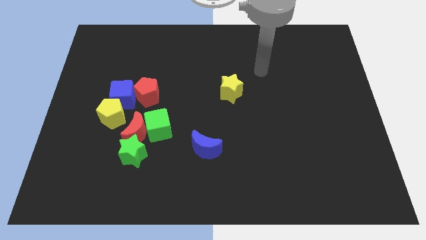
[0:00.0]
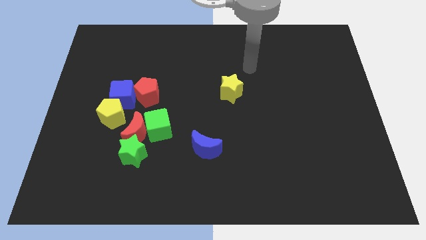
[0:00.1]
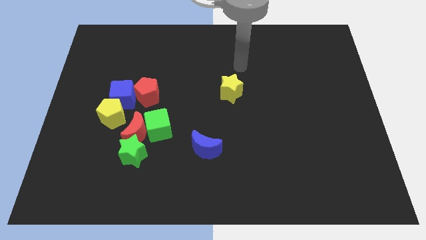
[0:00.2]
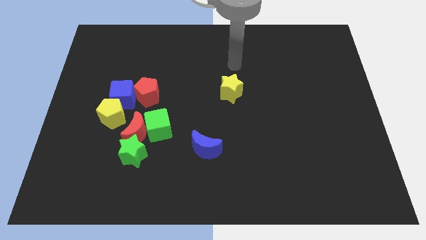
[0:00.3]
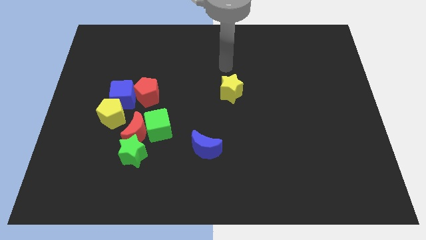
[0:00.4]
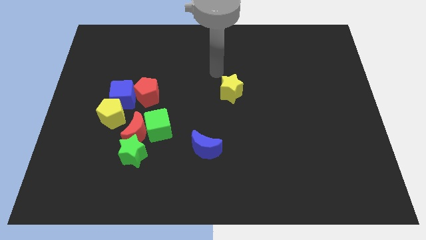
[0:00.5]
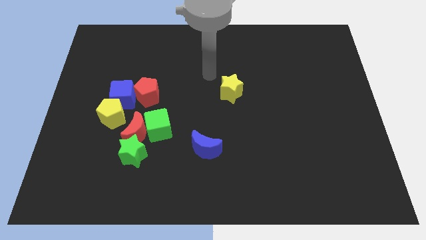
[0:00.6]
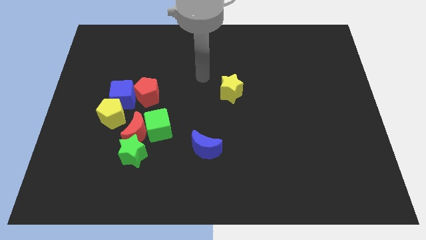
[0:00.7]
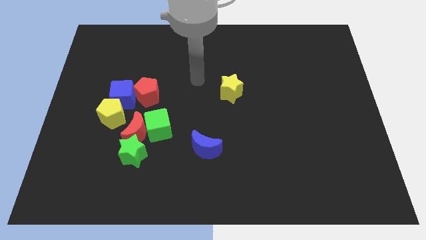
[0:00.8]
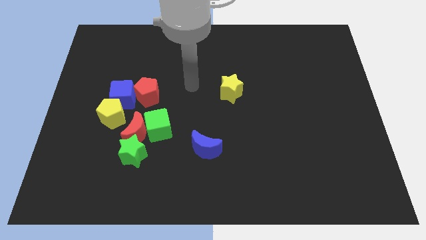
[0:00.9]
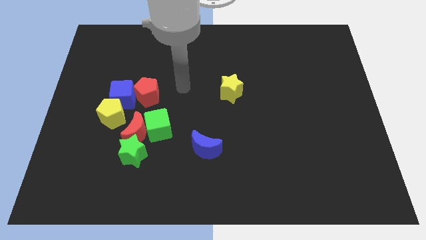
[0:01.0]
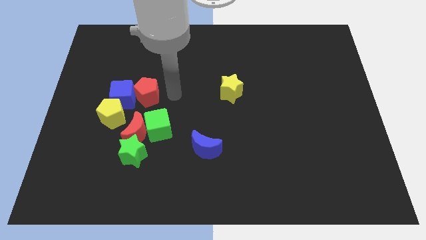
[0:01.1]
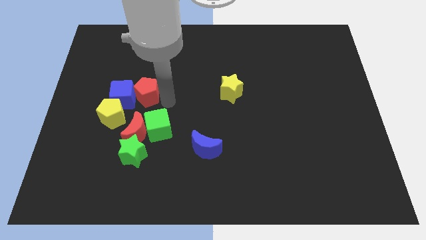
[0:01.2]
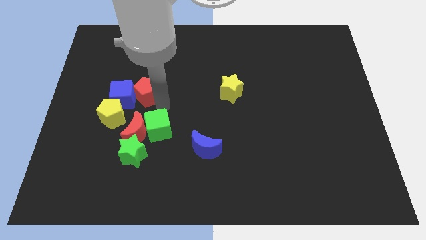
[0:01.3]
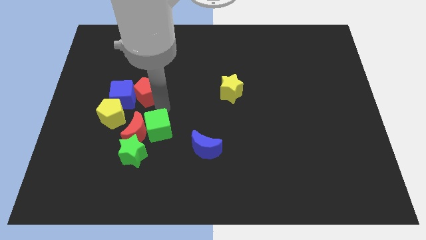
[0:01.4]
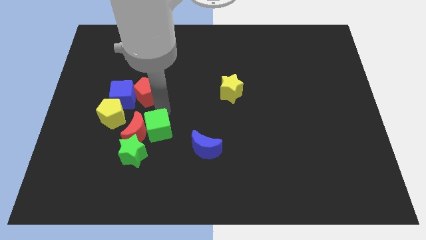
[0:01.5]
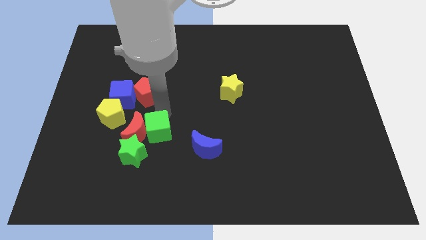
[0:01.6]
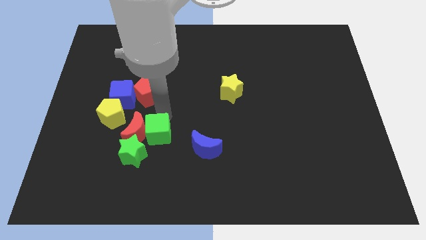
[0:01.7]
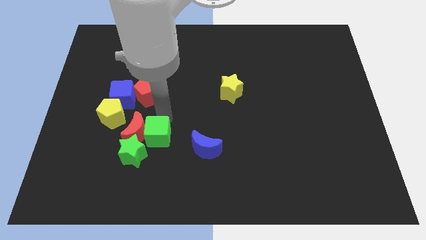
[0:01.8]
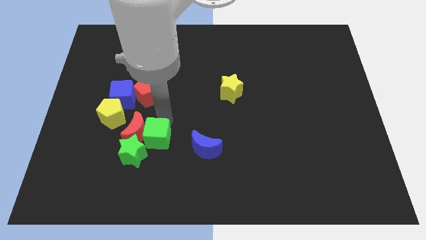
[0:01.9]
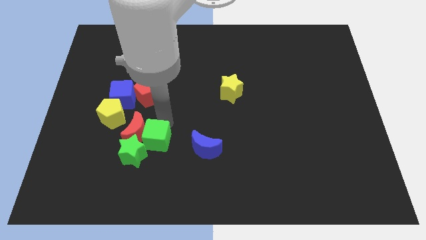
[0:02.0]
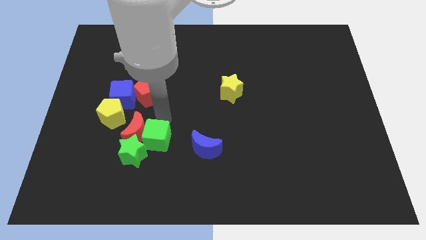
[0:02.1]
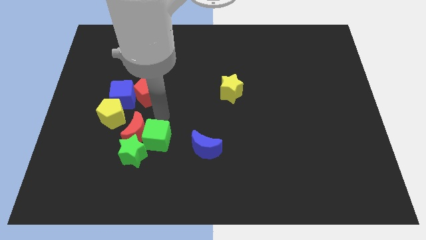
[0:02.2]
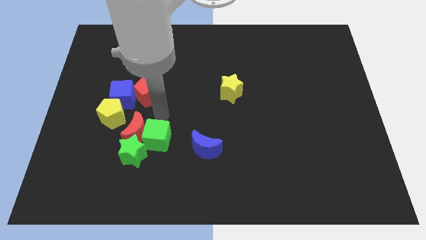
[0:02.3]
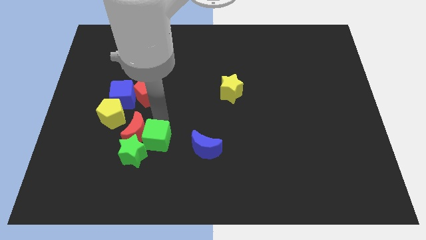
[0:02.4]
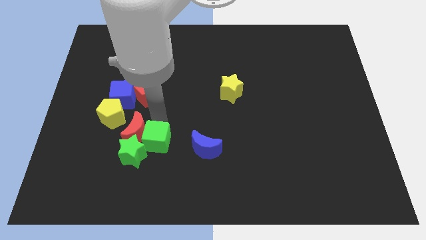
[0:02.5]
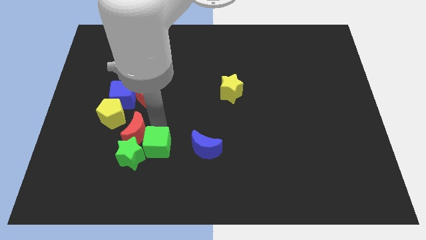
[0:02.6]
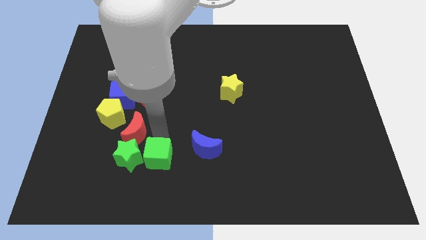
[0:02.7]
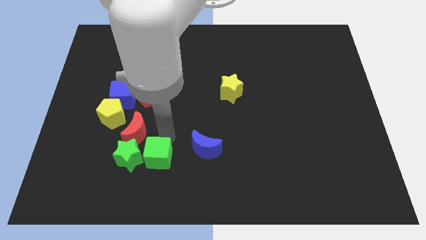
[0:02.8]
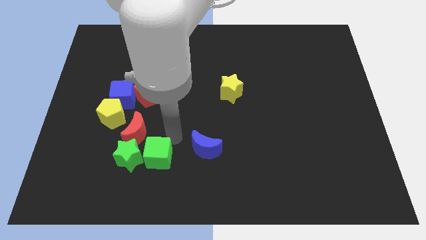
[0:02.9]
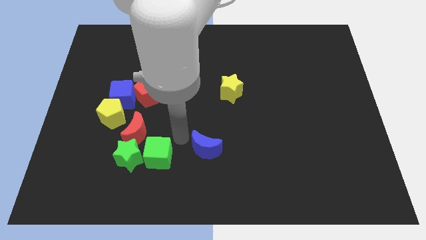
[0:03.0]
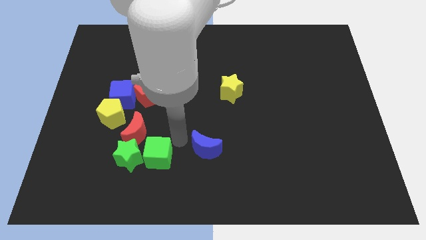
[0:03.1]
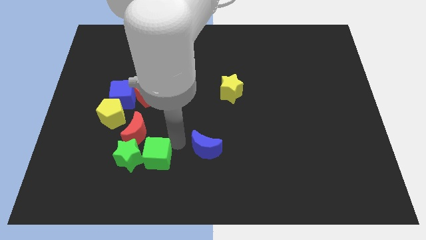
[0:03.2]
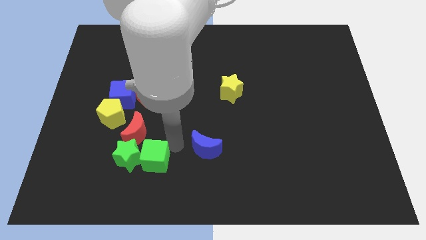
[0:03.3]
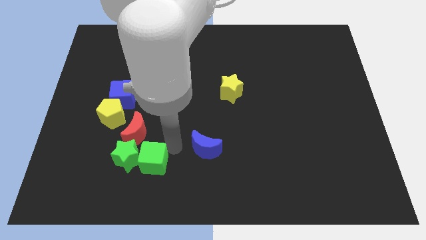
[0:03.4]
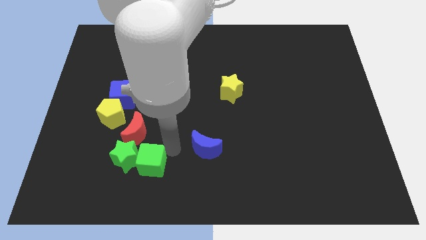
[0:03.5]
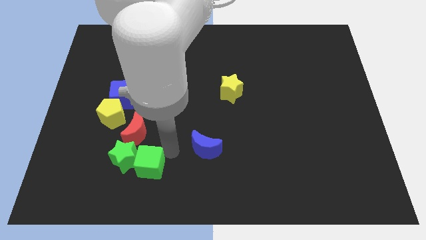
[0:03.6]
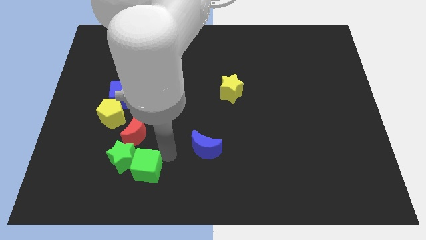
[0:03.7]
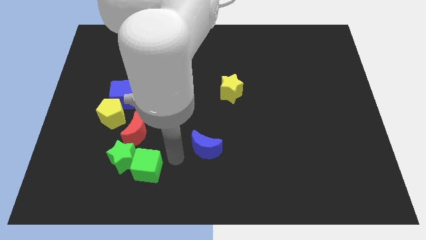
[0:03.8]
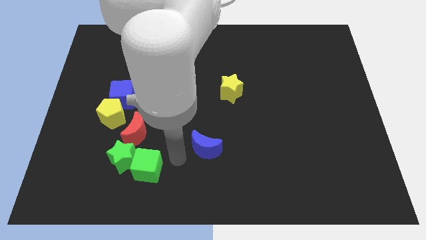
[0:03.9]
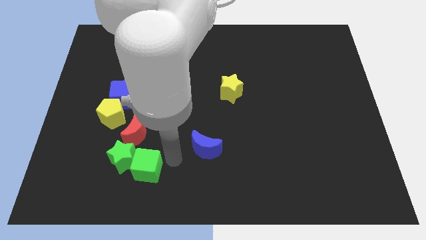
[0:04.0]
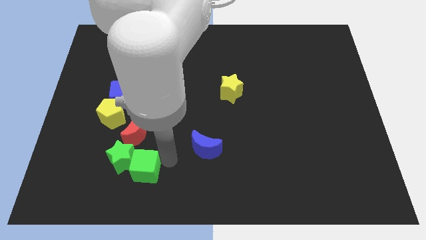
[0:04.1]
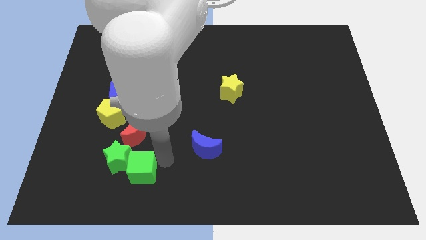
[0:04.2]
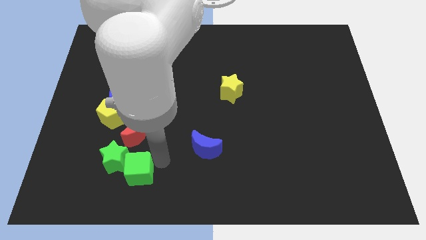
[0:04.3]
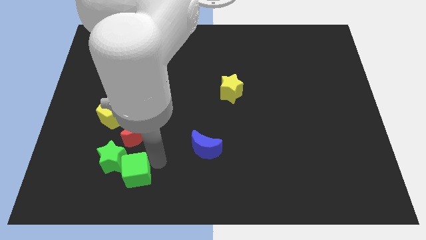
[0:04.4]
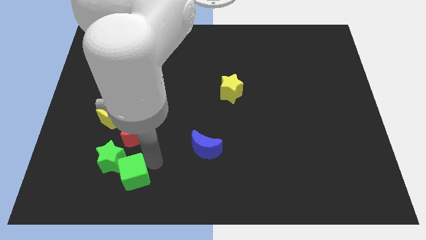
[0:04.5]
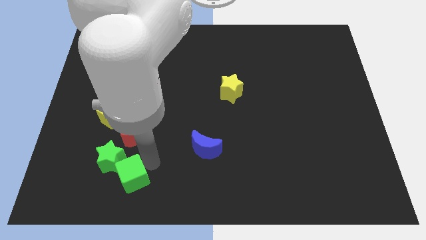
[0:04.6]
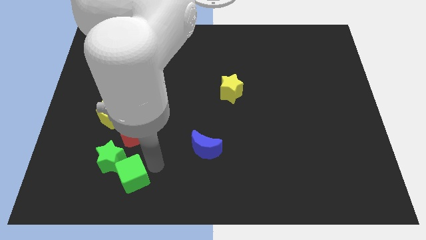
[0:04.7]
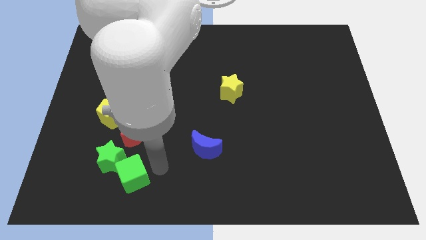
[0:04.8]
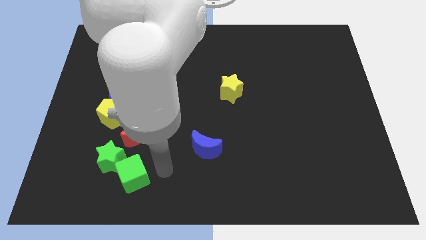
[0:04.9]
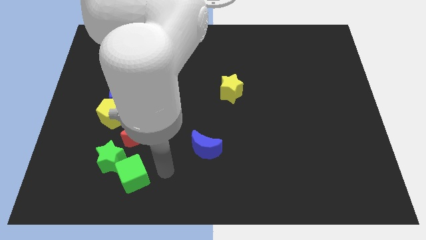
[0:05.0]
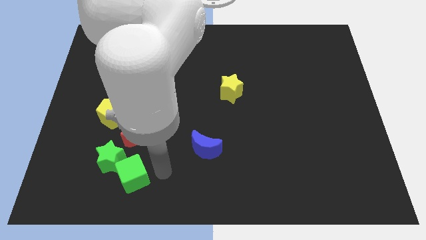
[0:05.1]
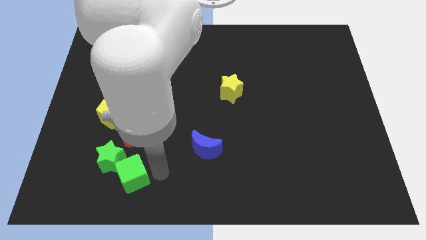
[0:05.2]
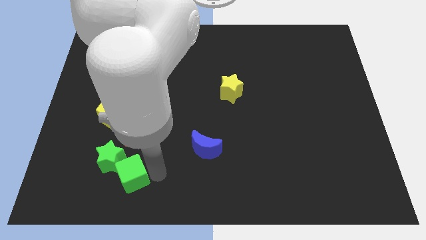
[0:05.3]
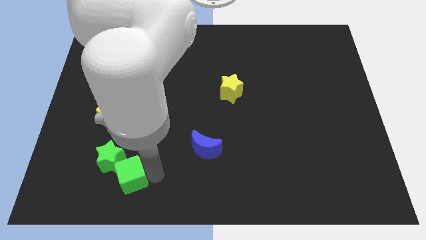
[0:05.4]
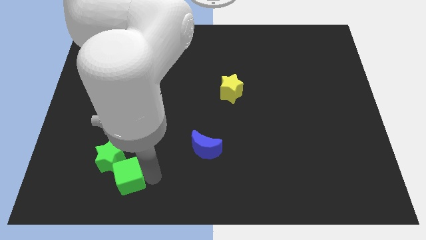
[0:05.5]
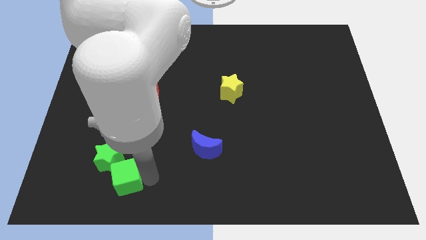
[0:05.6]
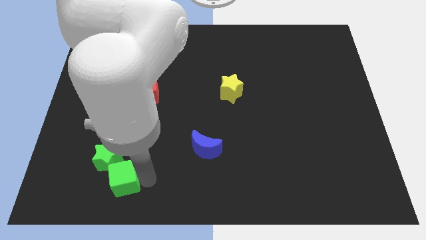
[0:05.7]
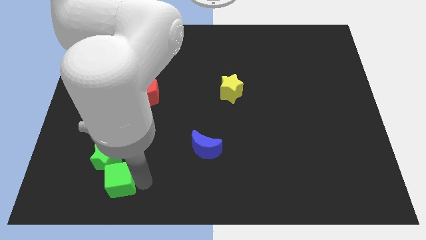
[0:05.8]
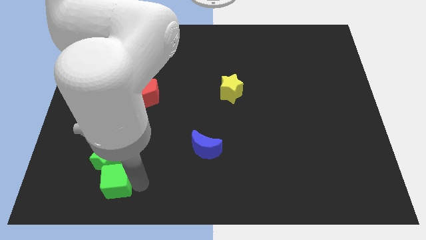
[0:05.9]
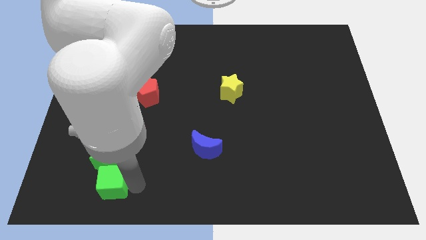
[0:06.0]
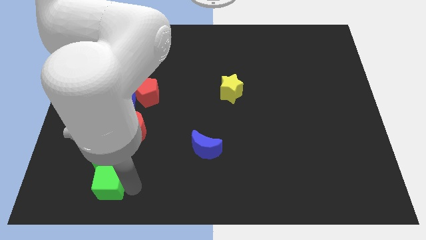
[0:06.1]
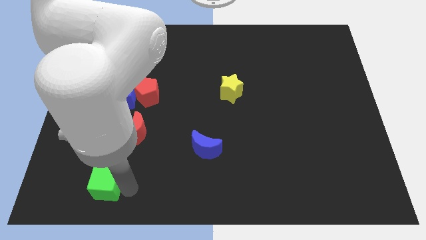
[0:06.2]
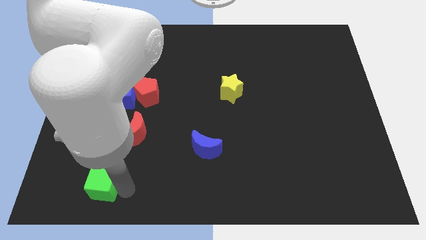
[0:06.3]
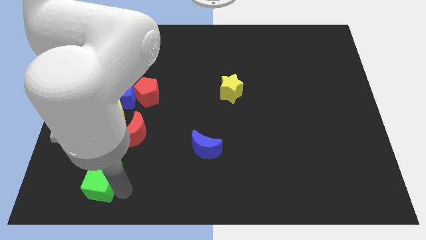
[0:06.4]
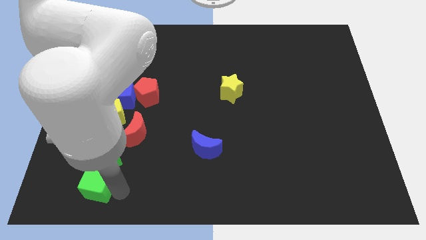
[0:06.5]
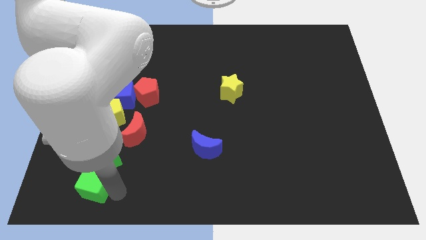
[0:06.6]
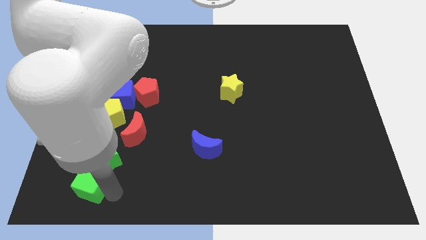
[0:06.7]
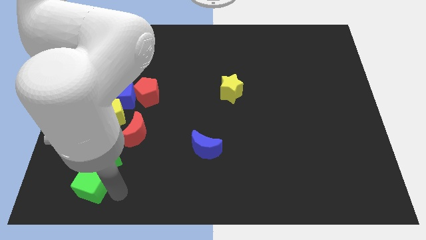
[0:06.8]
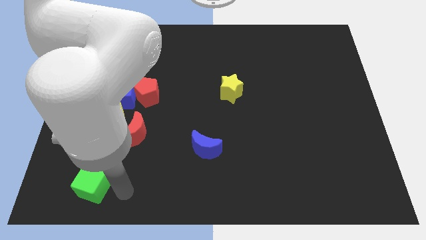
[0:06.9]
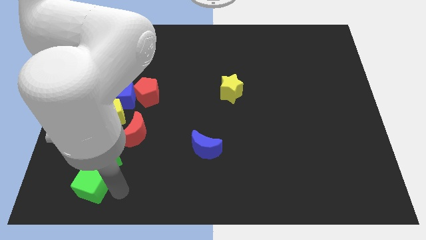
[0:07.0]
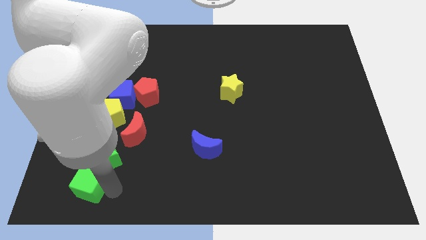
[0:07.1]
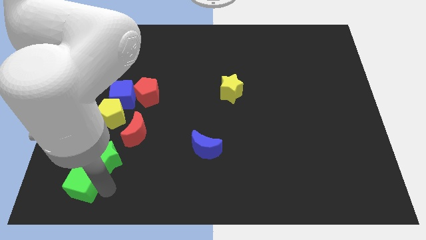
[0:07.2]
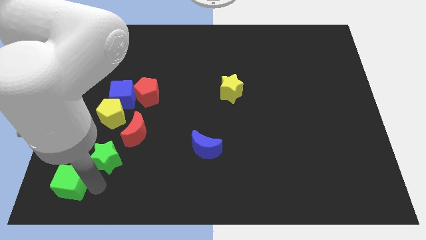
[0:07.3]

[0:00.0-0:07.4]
push the green cube to the bottom left corner
